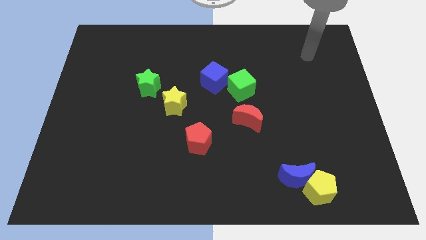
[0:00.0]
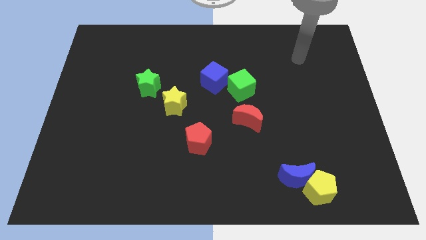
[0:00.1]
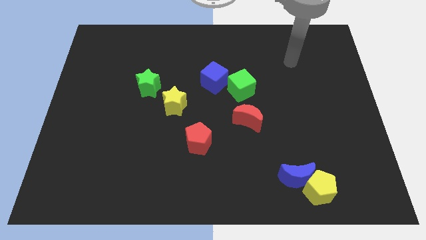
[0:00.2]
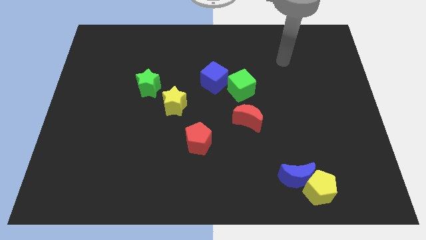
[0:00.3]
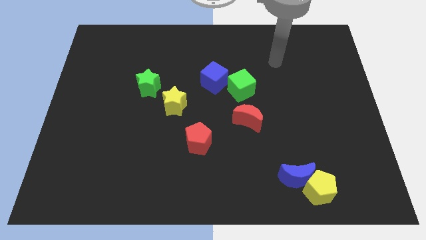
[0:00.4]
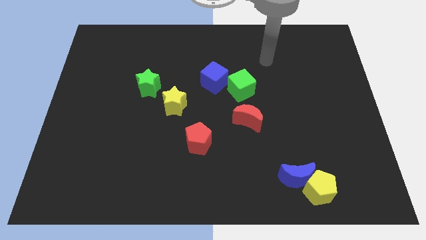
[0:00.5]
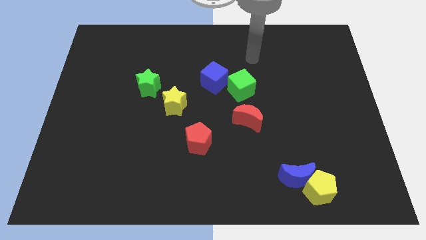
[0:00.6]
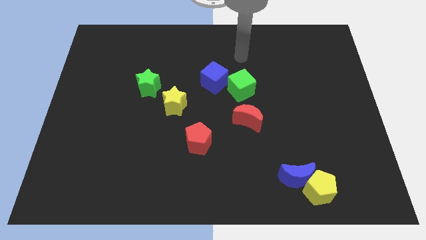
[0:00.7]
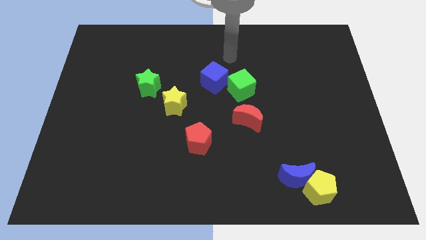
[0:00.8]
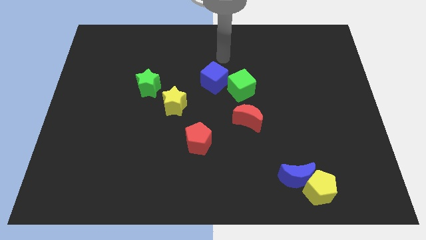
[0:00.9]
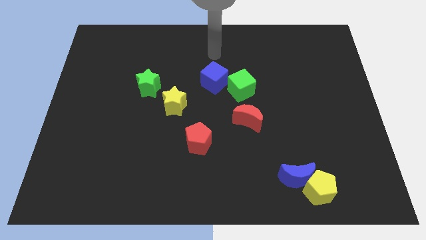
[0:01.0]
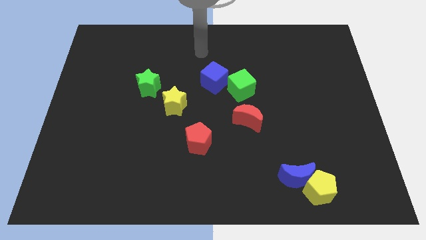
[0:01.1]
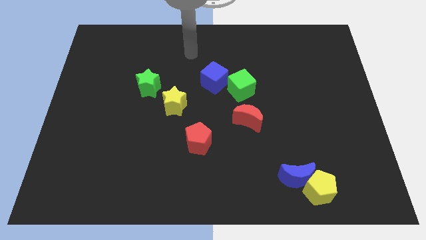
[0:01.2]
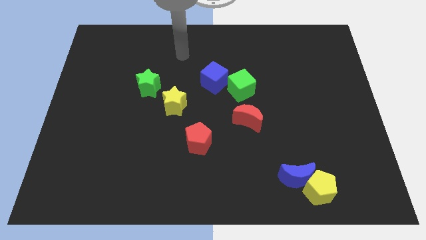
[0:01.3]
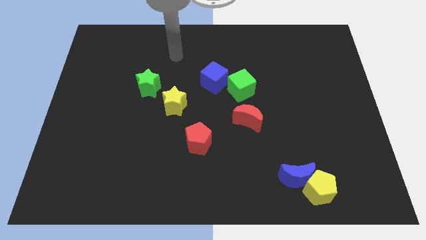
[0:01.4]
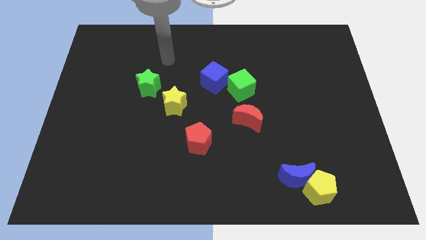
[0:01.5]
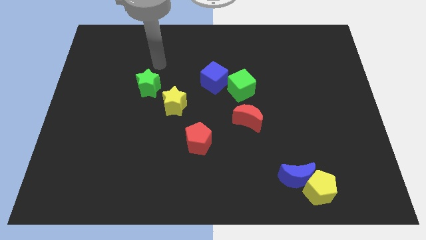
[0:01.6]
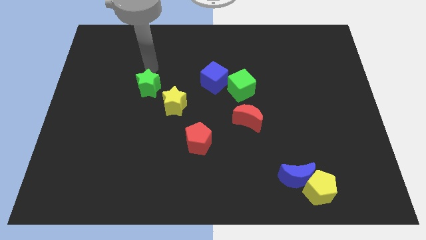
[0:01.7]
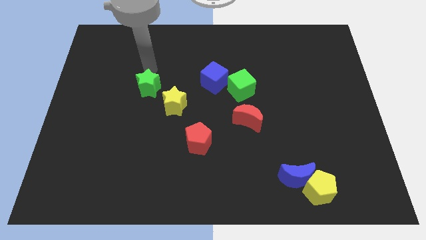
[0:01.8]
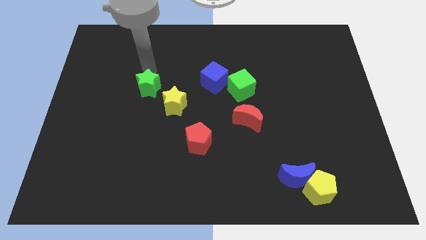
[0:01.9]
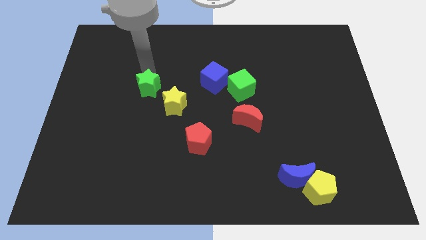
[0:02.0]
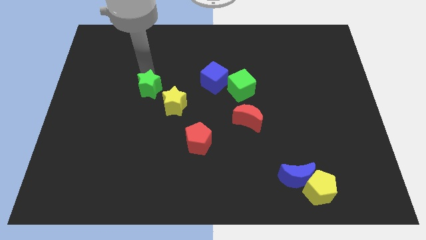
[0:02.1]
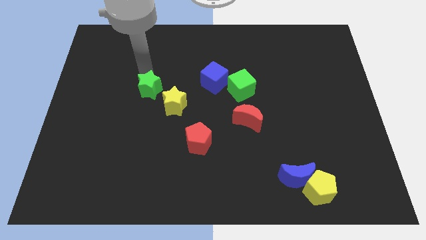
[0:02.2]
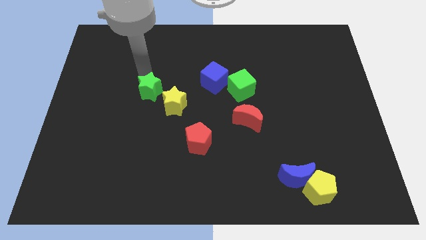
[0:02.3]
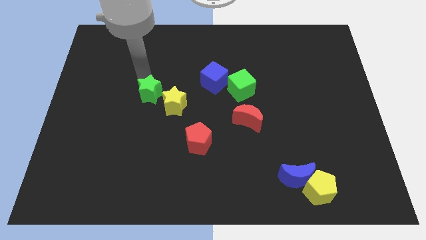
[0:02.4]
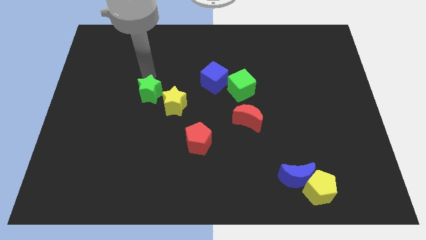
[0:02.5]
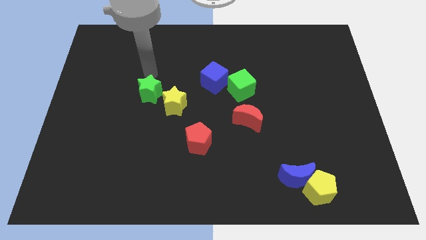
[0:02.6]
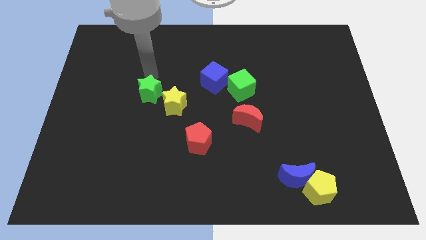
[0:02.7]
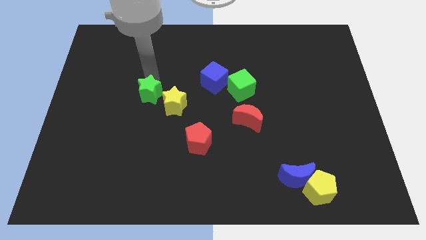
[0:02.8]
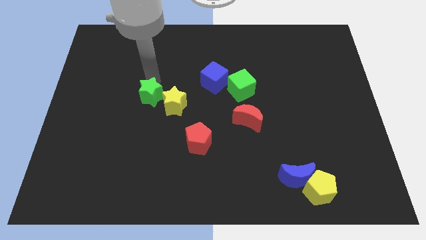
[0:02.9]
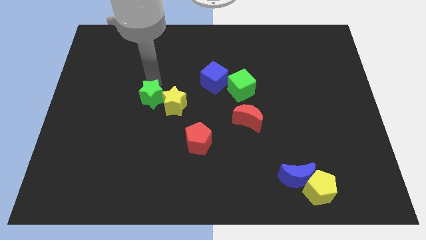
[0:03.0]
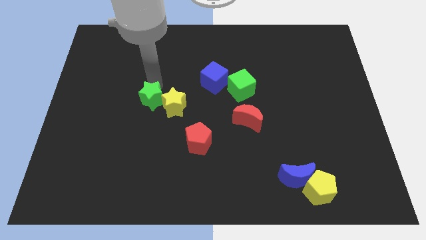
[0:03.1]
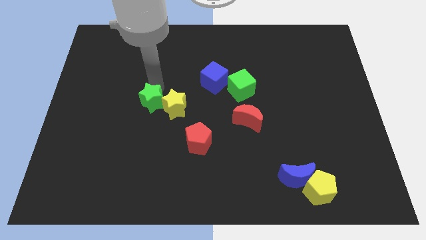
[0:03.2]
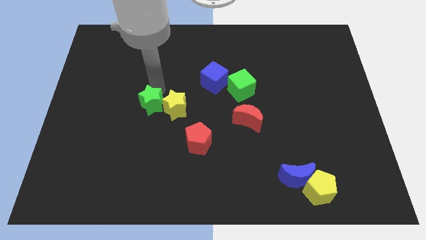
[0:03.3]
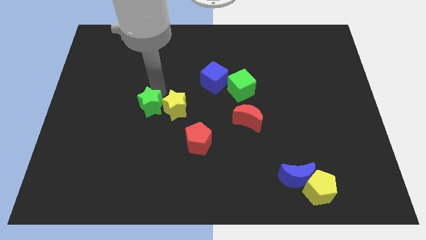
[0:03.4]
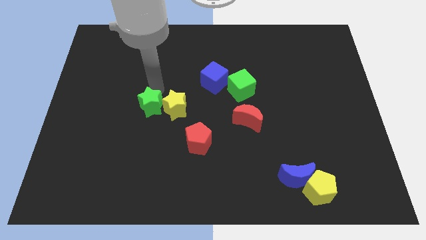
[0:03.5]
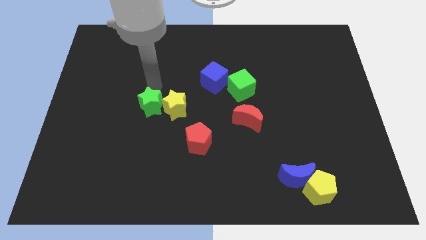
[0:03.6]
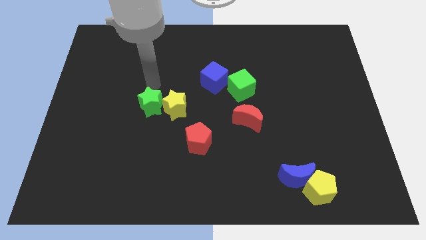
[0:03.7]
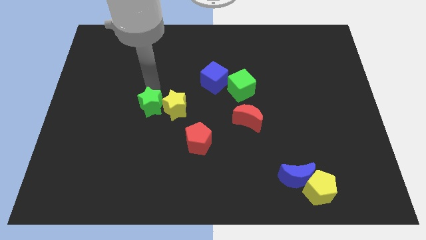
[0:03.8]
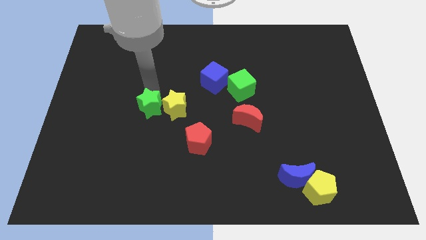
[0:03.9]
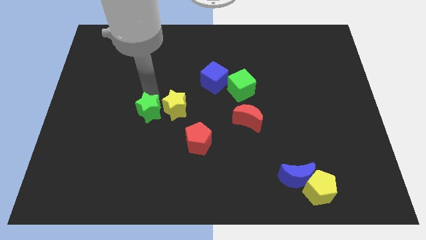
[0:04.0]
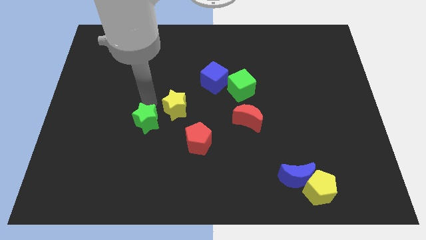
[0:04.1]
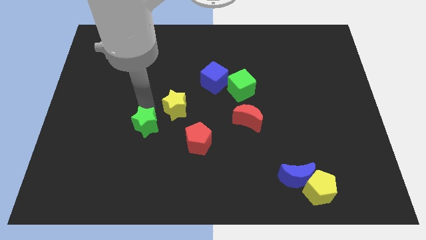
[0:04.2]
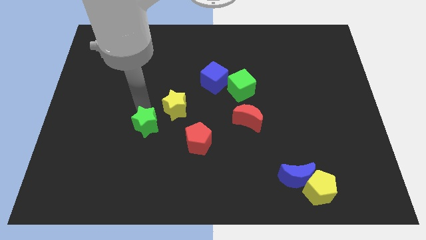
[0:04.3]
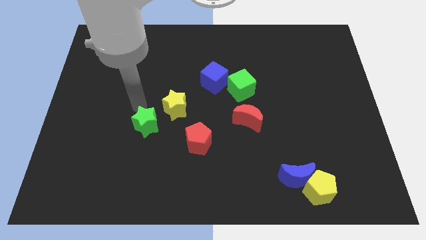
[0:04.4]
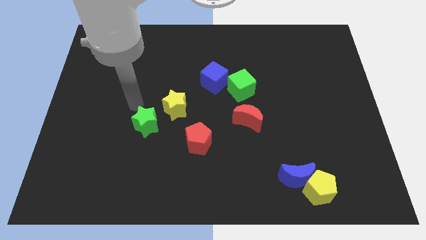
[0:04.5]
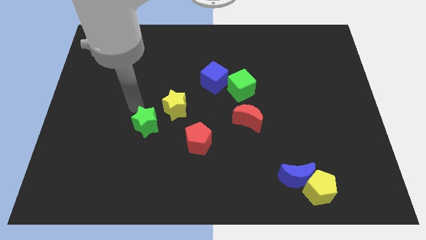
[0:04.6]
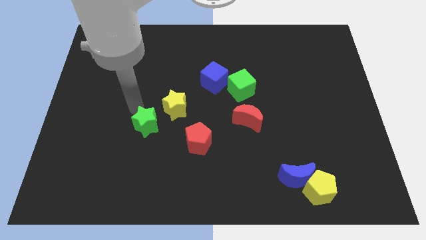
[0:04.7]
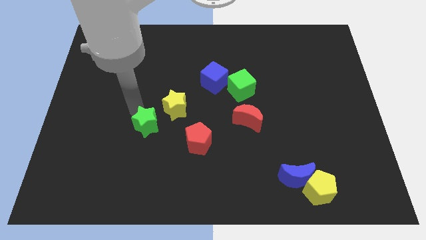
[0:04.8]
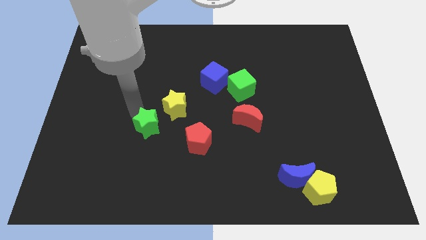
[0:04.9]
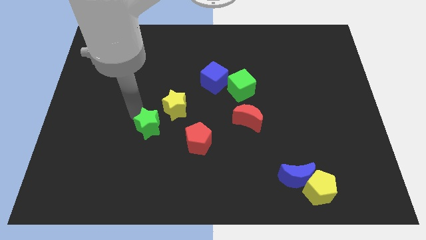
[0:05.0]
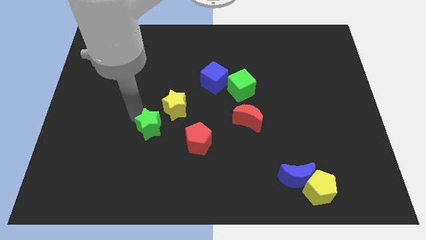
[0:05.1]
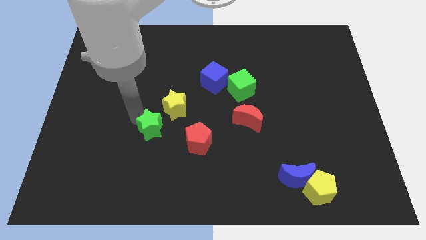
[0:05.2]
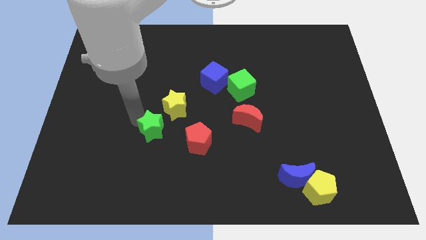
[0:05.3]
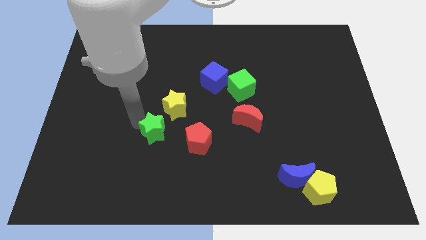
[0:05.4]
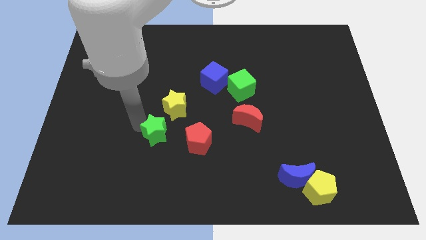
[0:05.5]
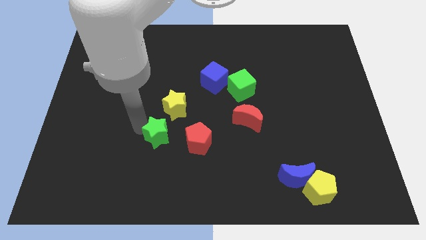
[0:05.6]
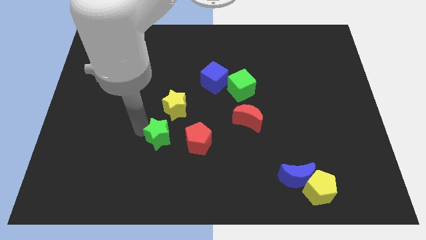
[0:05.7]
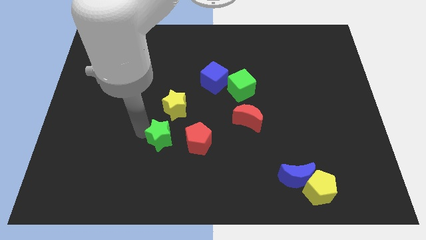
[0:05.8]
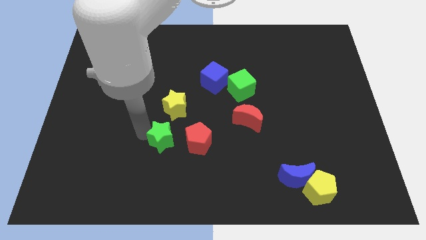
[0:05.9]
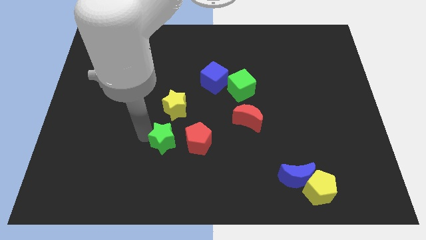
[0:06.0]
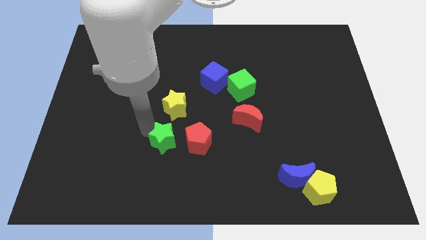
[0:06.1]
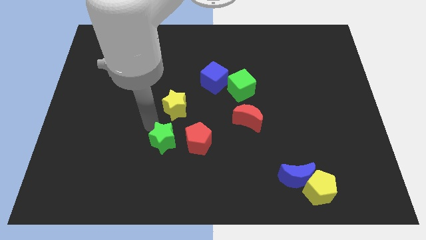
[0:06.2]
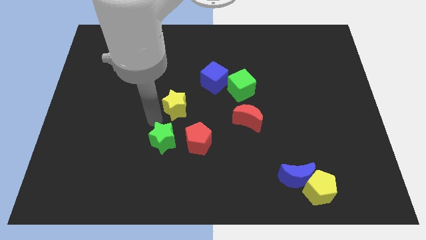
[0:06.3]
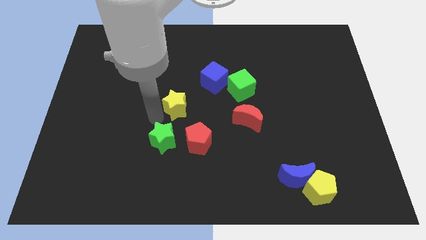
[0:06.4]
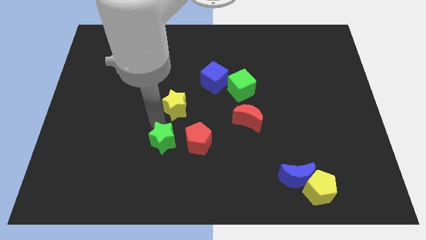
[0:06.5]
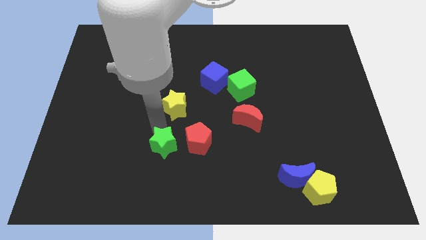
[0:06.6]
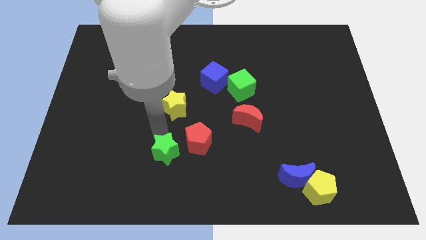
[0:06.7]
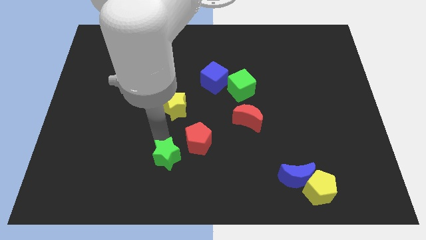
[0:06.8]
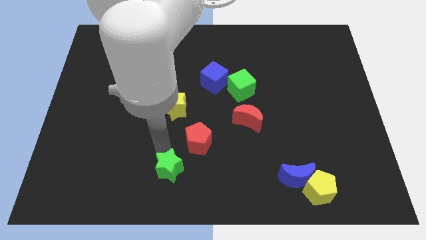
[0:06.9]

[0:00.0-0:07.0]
move the green star to the bottom side

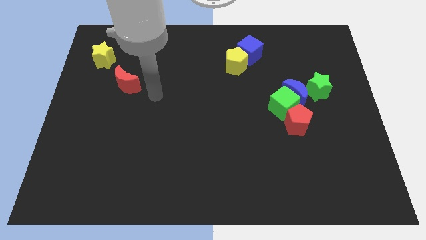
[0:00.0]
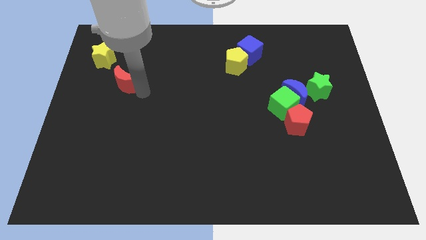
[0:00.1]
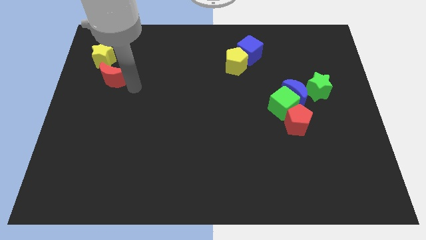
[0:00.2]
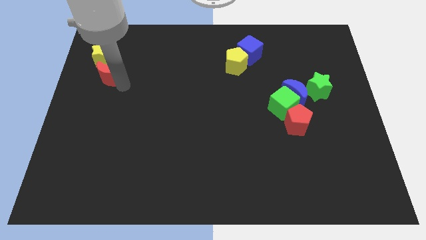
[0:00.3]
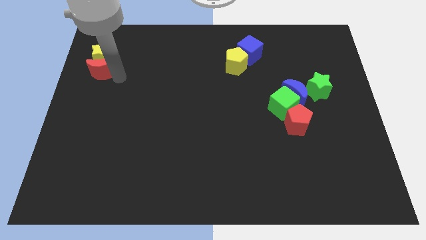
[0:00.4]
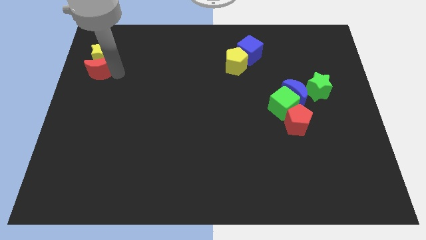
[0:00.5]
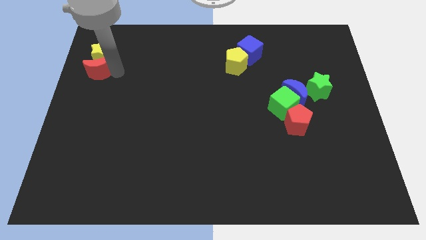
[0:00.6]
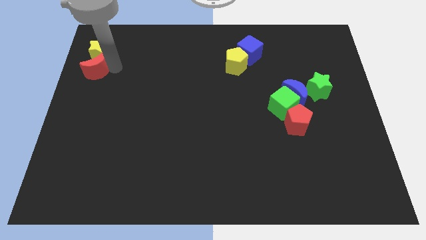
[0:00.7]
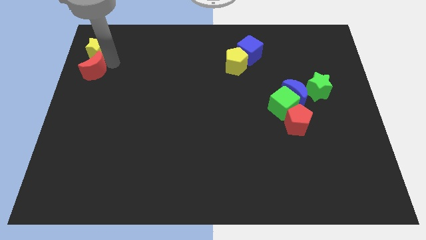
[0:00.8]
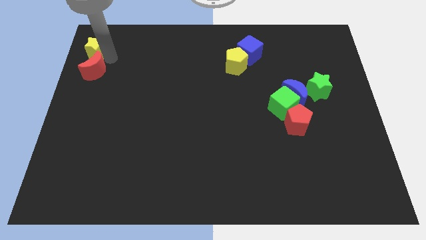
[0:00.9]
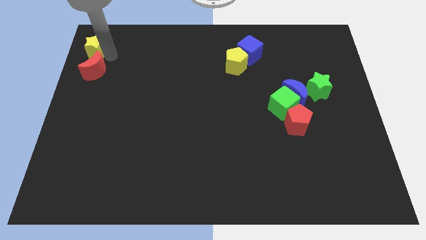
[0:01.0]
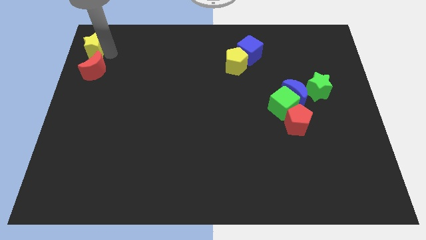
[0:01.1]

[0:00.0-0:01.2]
push the yellow star to the top left corner

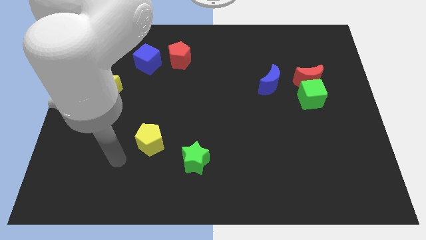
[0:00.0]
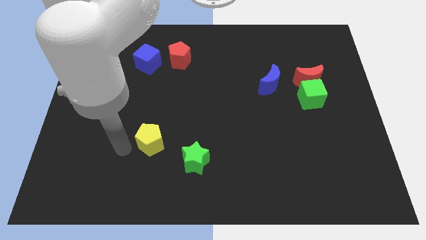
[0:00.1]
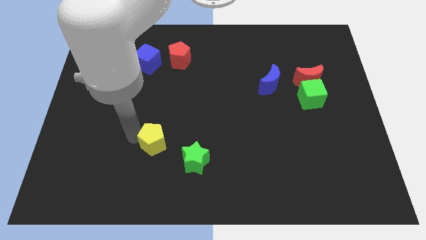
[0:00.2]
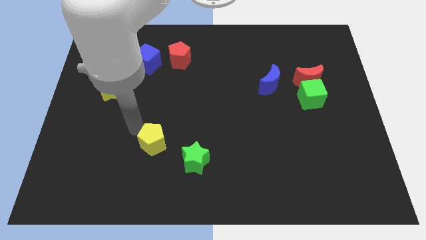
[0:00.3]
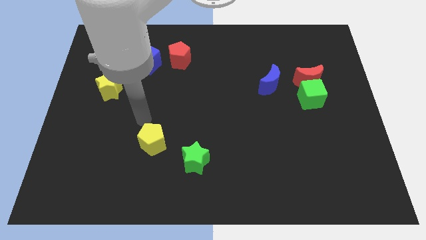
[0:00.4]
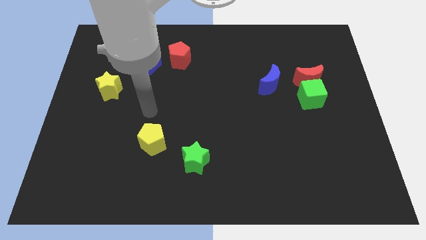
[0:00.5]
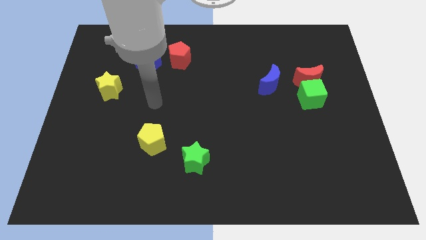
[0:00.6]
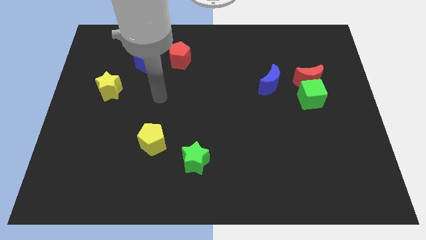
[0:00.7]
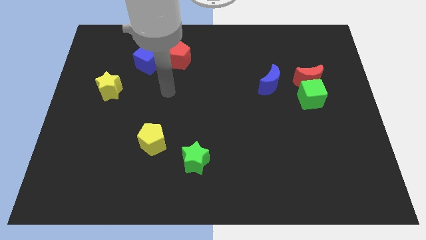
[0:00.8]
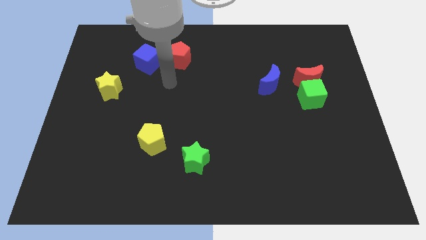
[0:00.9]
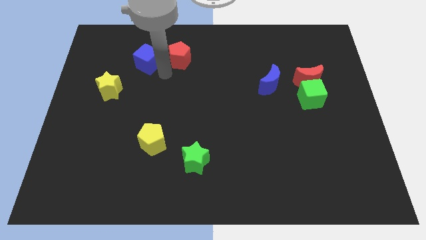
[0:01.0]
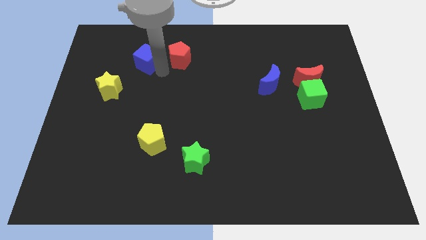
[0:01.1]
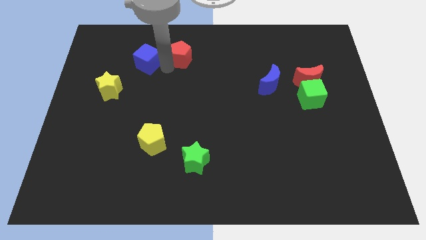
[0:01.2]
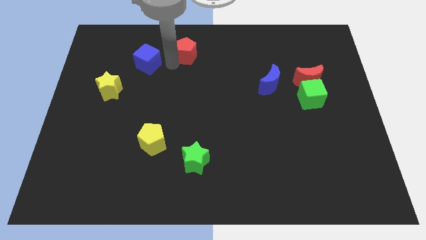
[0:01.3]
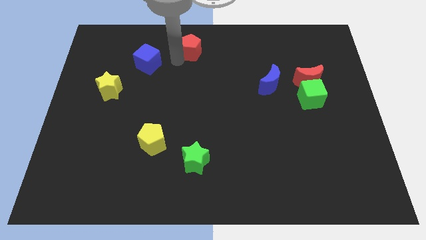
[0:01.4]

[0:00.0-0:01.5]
slide the red pentagon to the towards your base
